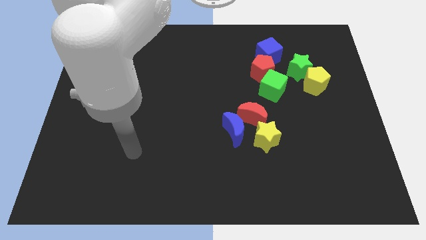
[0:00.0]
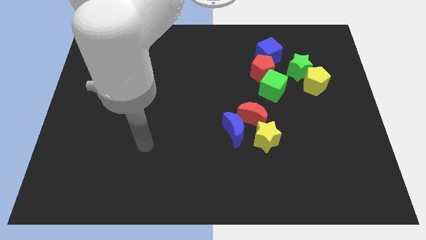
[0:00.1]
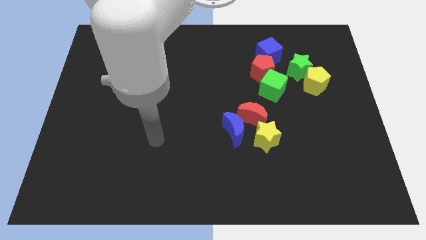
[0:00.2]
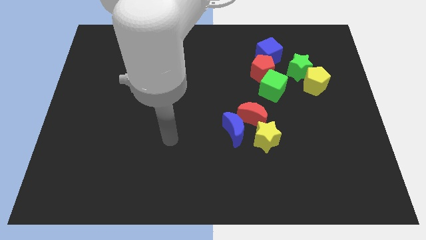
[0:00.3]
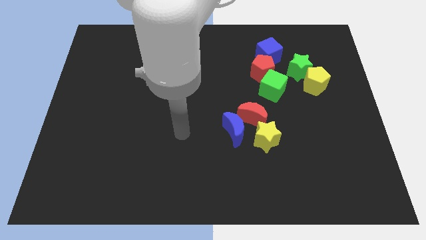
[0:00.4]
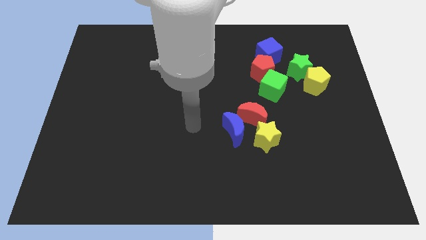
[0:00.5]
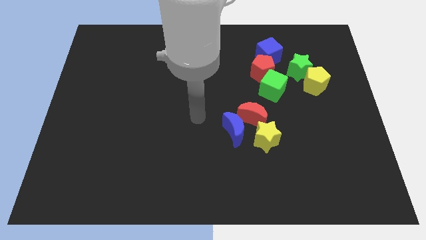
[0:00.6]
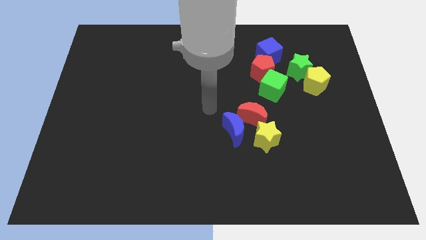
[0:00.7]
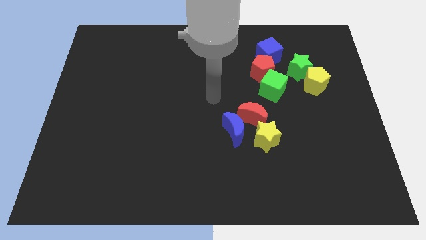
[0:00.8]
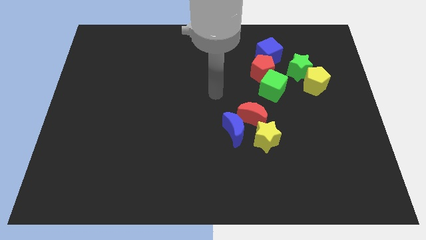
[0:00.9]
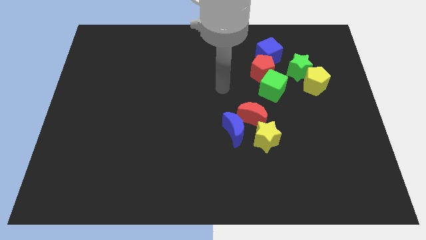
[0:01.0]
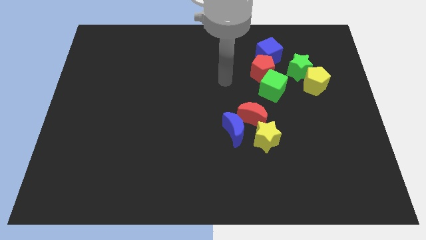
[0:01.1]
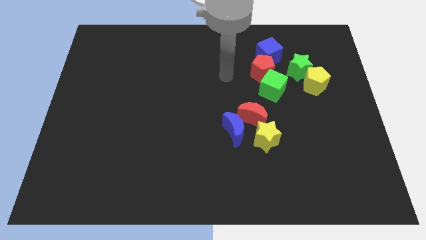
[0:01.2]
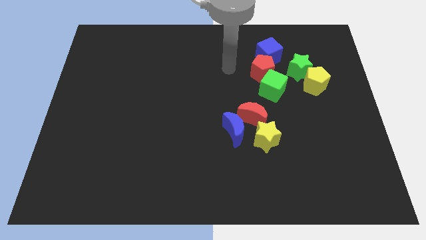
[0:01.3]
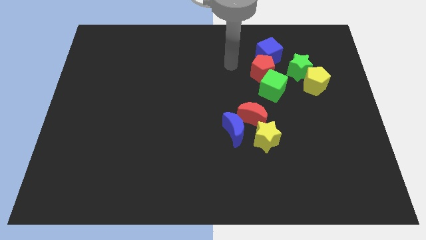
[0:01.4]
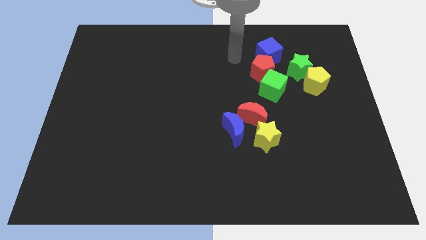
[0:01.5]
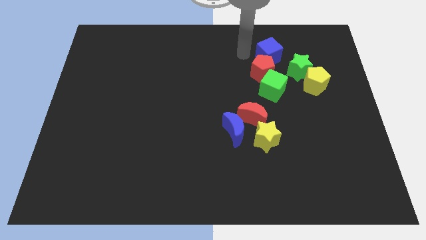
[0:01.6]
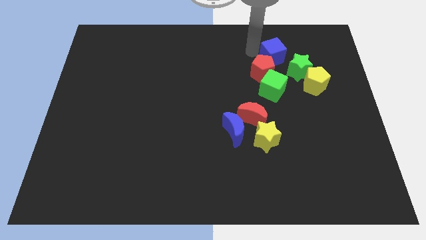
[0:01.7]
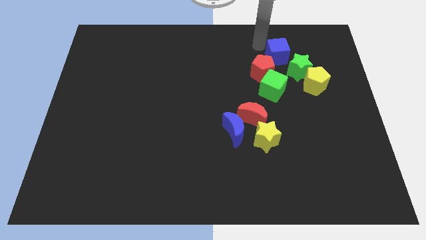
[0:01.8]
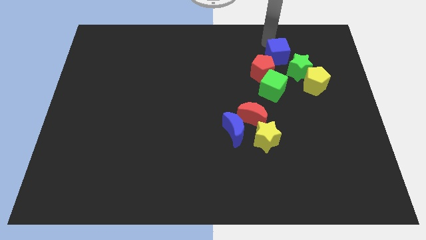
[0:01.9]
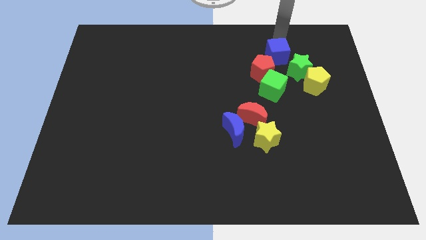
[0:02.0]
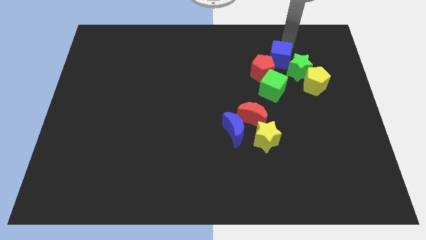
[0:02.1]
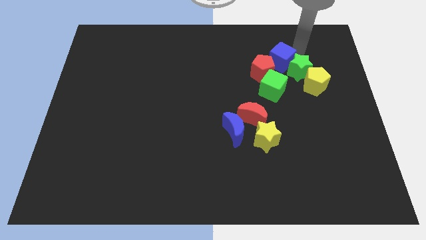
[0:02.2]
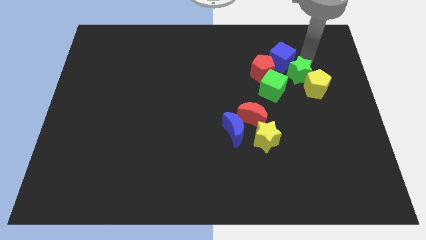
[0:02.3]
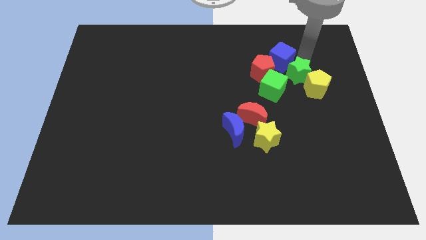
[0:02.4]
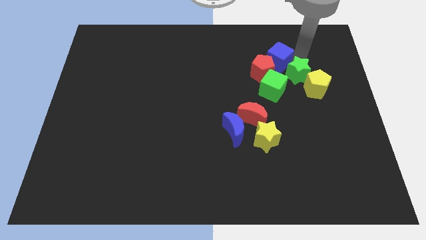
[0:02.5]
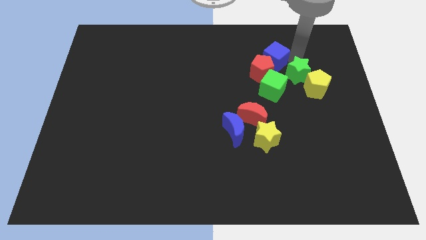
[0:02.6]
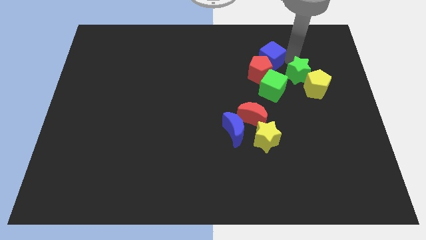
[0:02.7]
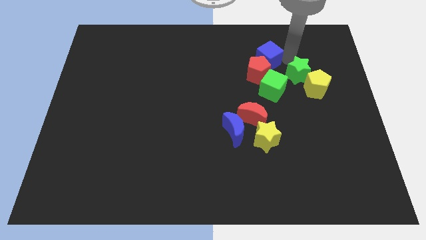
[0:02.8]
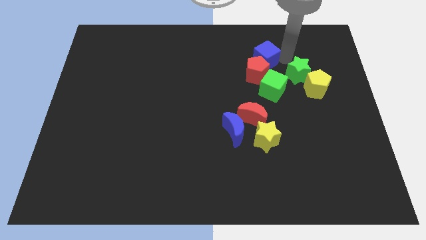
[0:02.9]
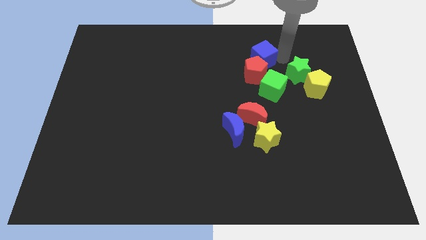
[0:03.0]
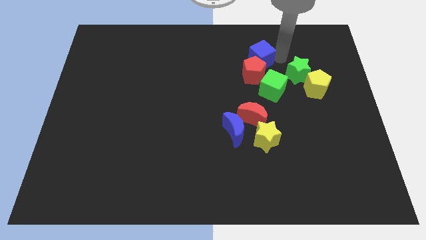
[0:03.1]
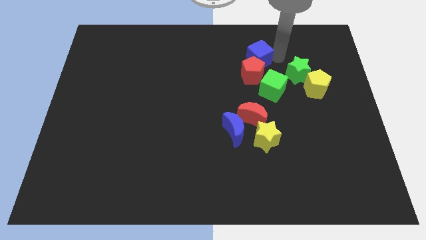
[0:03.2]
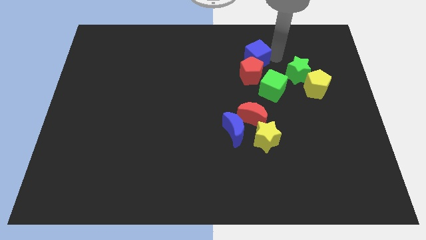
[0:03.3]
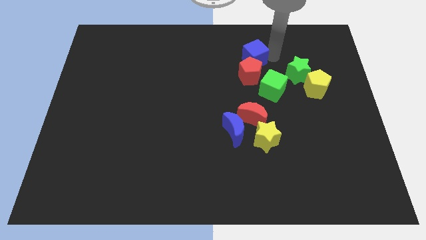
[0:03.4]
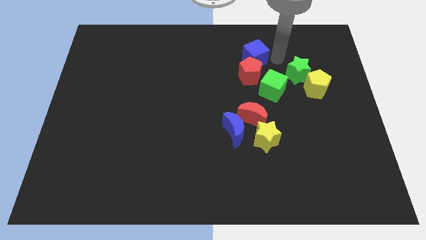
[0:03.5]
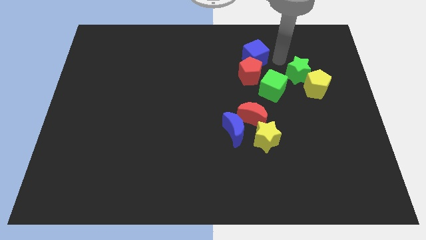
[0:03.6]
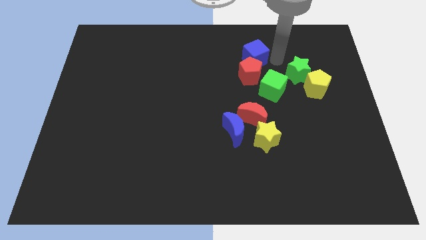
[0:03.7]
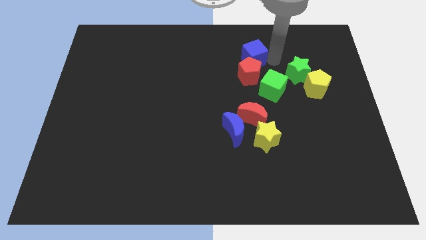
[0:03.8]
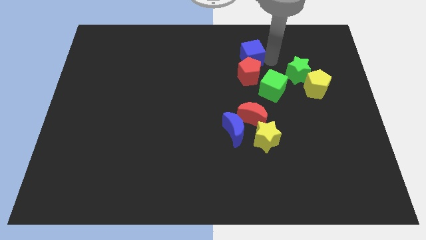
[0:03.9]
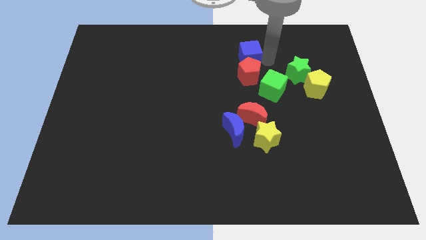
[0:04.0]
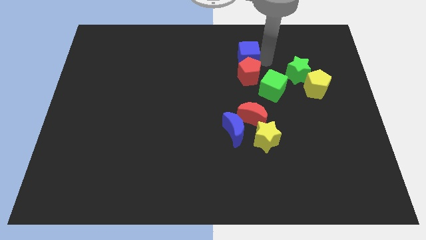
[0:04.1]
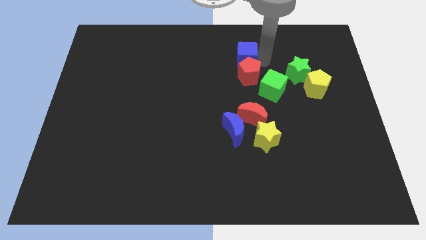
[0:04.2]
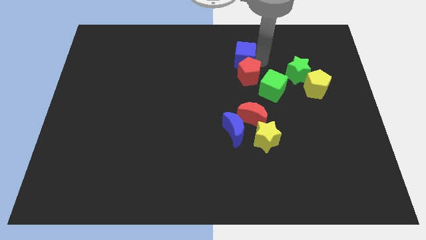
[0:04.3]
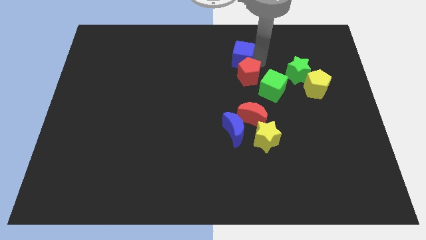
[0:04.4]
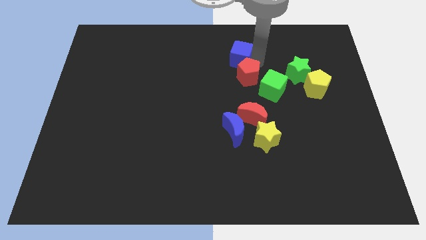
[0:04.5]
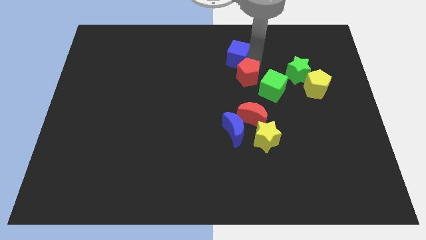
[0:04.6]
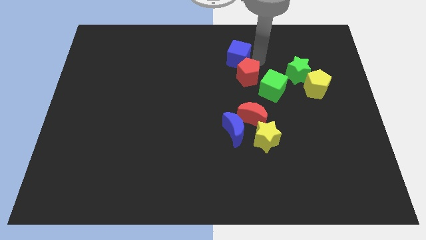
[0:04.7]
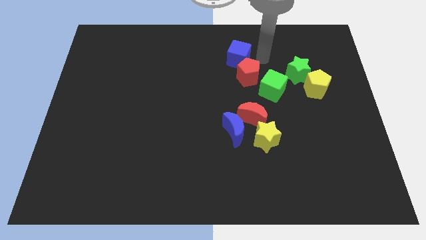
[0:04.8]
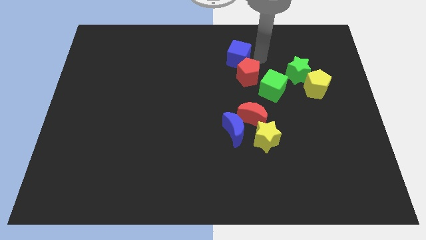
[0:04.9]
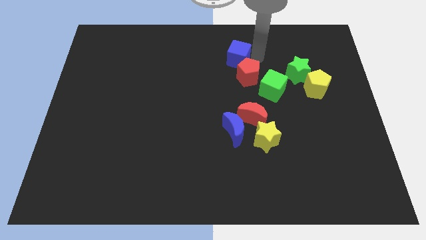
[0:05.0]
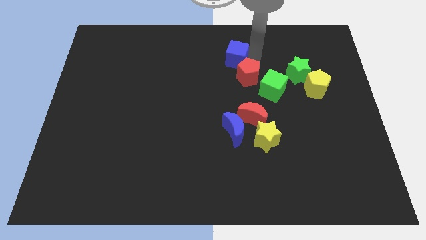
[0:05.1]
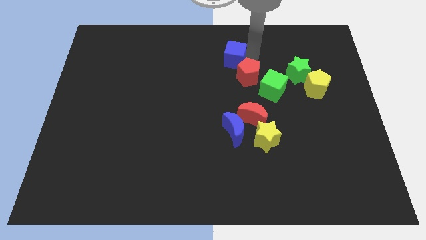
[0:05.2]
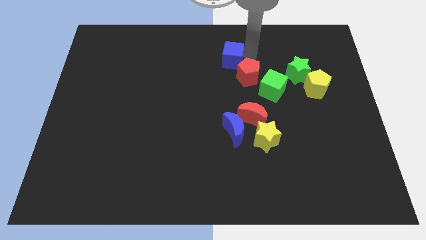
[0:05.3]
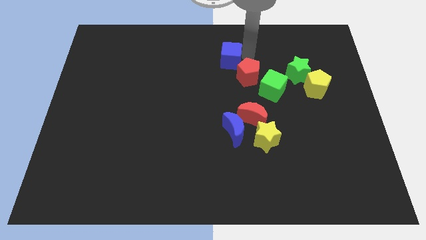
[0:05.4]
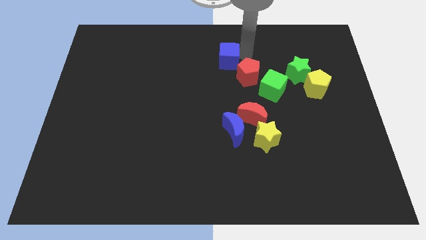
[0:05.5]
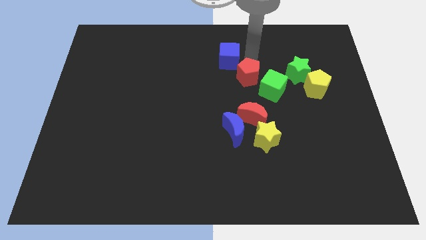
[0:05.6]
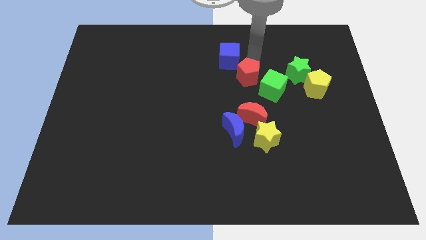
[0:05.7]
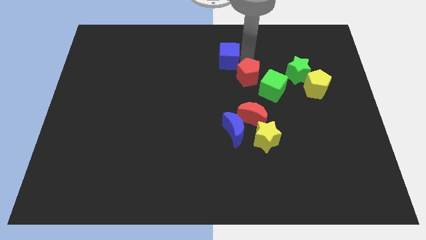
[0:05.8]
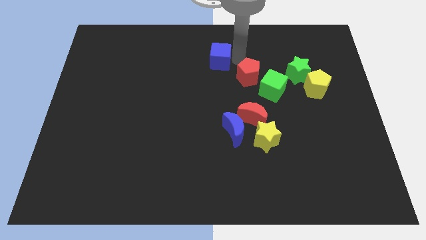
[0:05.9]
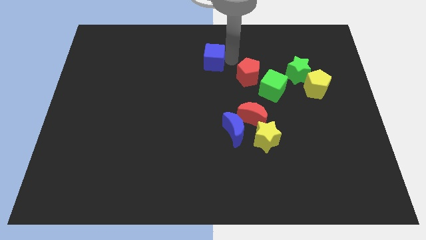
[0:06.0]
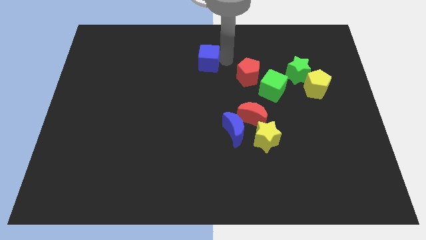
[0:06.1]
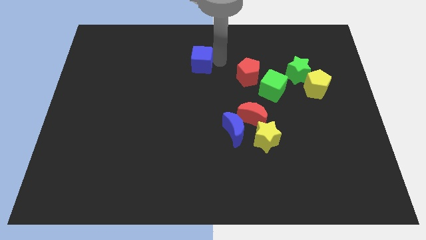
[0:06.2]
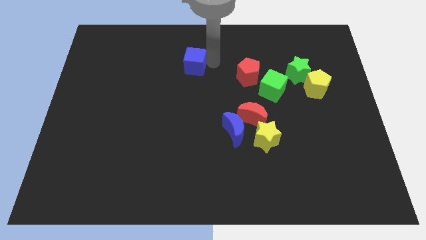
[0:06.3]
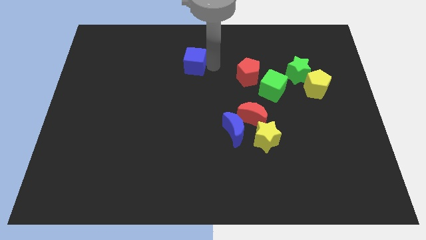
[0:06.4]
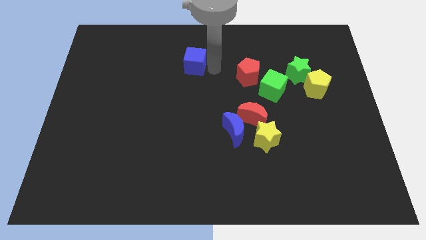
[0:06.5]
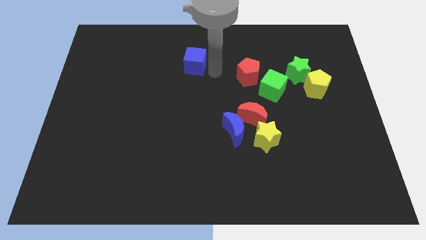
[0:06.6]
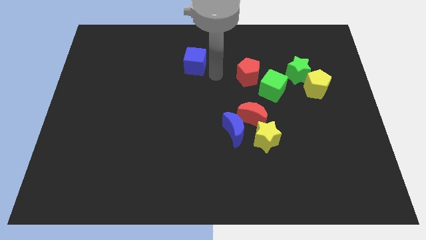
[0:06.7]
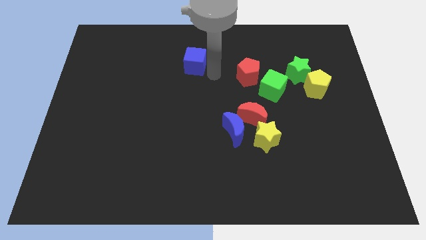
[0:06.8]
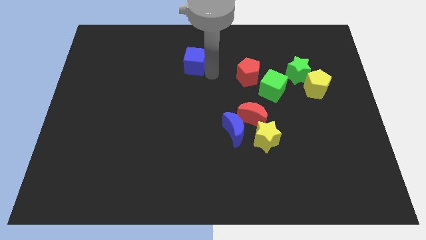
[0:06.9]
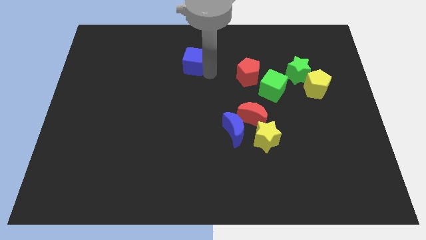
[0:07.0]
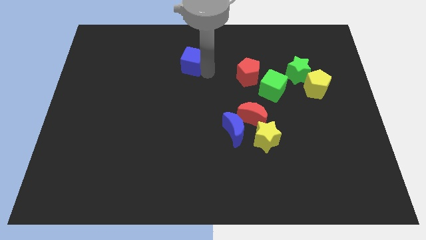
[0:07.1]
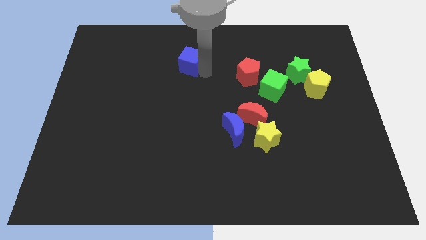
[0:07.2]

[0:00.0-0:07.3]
slide the blue cube to the left

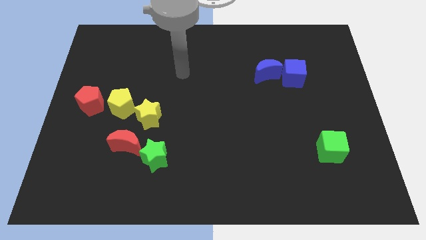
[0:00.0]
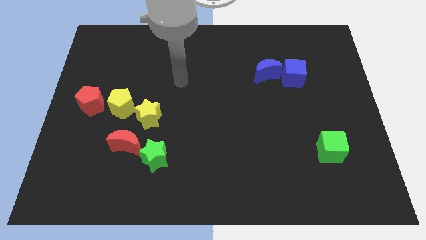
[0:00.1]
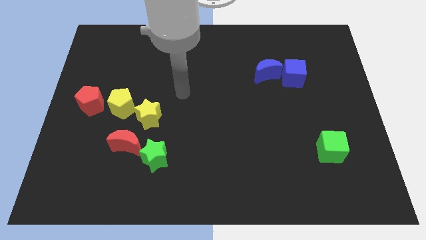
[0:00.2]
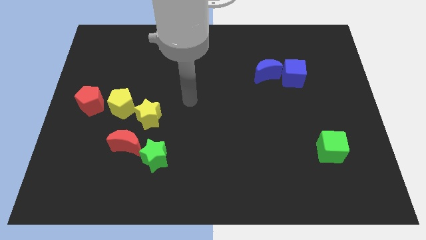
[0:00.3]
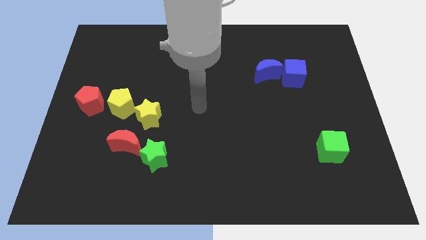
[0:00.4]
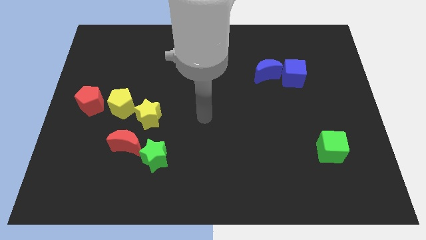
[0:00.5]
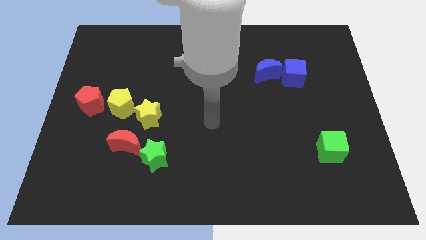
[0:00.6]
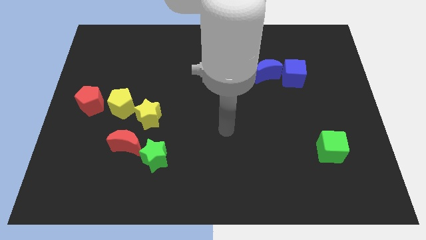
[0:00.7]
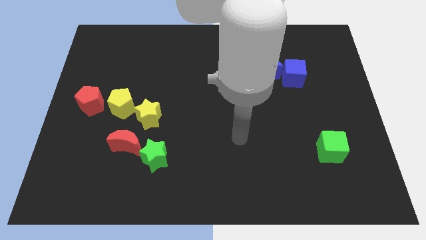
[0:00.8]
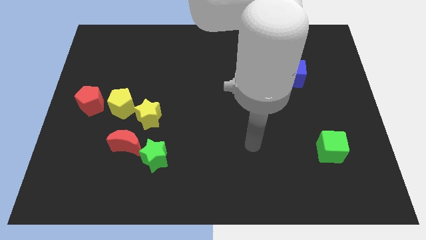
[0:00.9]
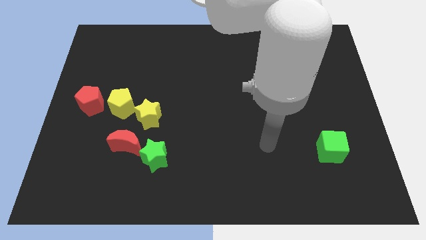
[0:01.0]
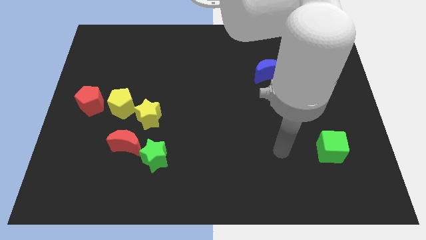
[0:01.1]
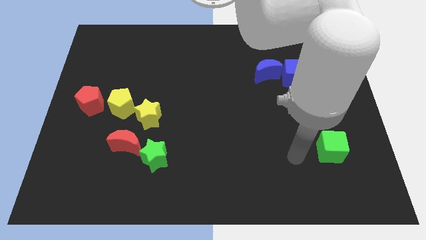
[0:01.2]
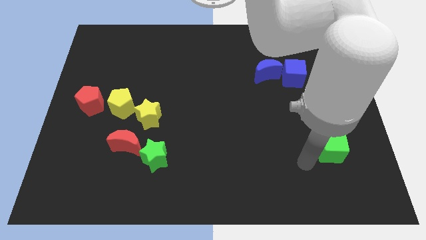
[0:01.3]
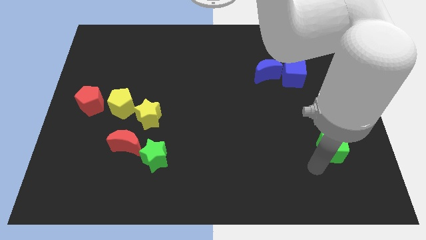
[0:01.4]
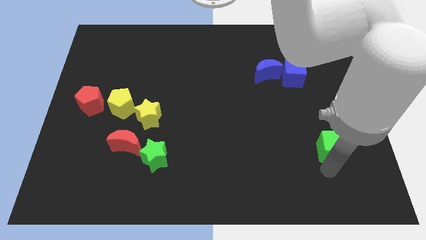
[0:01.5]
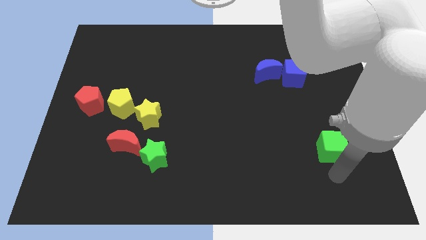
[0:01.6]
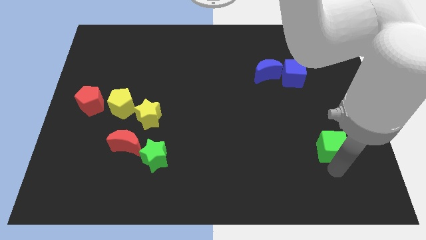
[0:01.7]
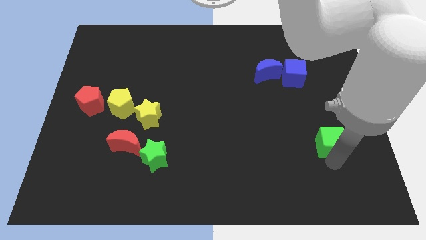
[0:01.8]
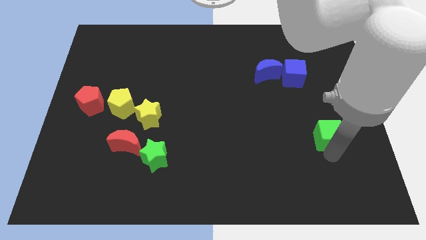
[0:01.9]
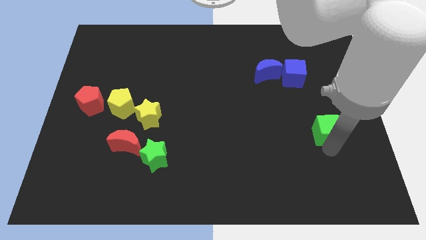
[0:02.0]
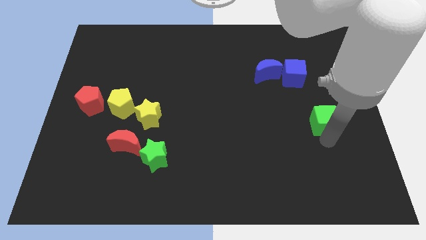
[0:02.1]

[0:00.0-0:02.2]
push the green cube up a bit
